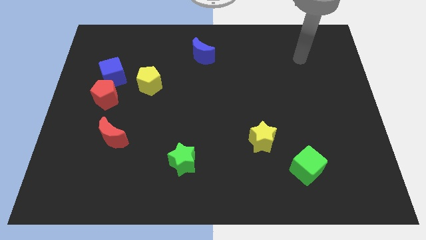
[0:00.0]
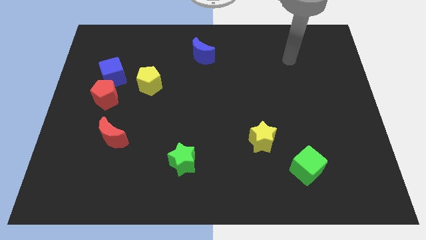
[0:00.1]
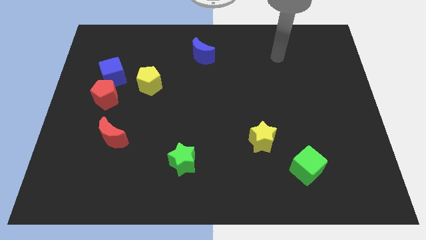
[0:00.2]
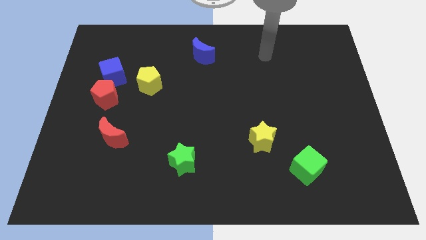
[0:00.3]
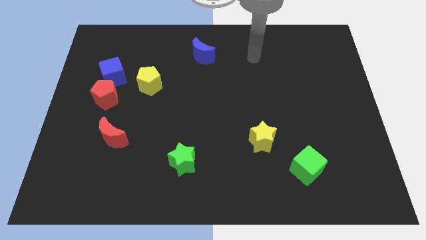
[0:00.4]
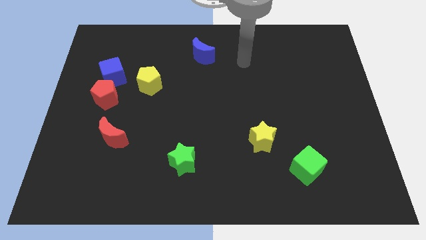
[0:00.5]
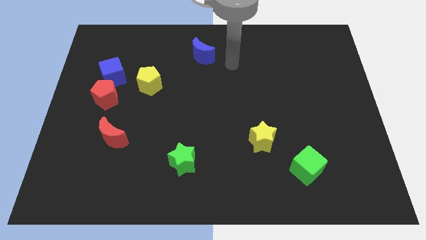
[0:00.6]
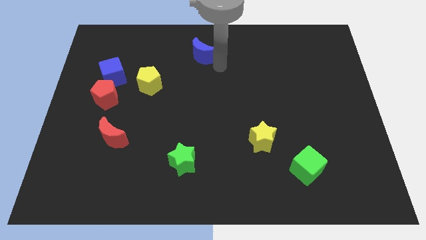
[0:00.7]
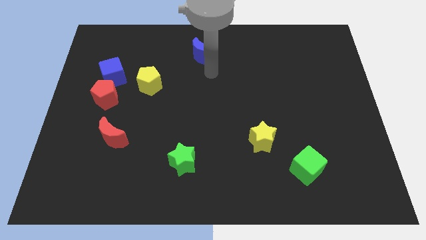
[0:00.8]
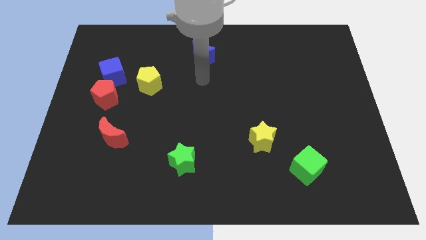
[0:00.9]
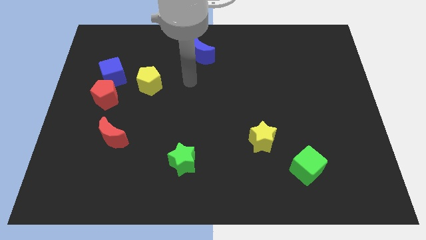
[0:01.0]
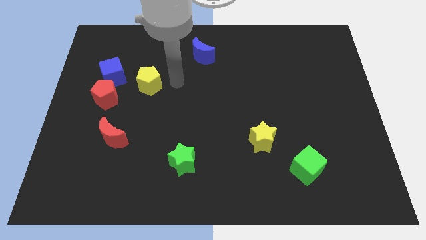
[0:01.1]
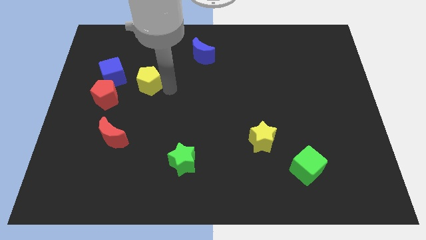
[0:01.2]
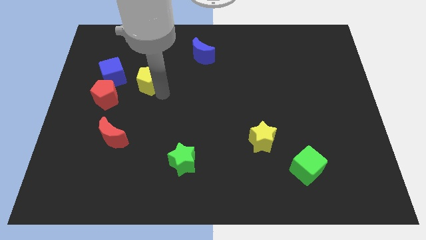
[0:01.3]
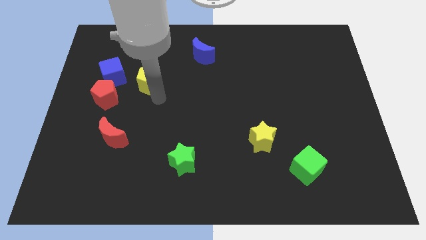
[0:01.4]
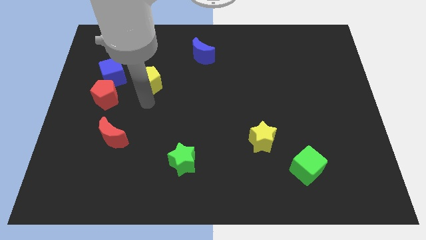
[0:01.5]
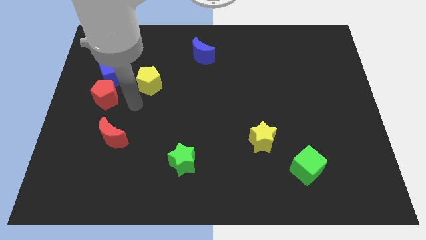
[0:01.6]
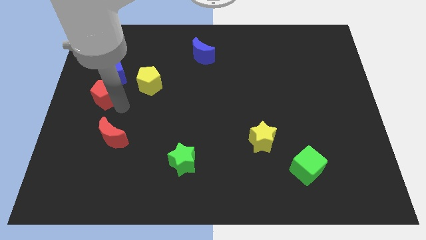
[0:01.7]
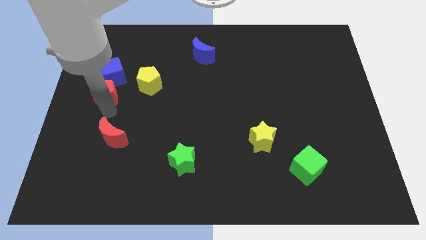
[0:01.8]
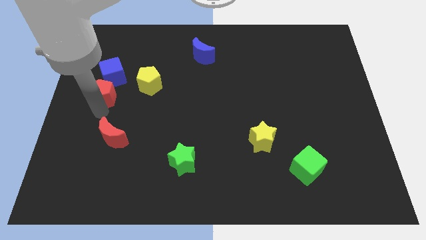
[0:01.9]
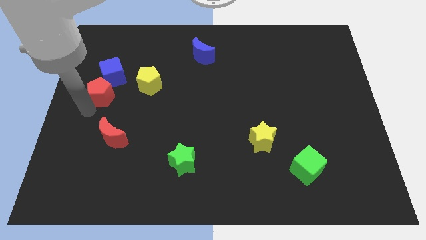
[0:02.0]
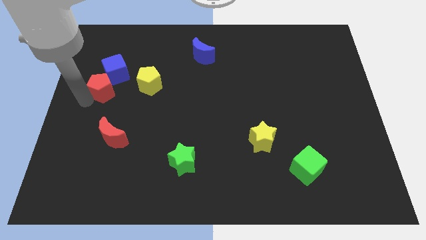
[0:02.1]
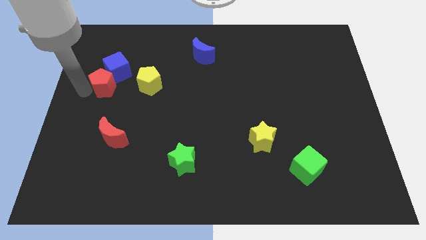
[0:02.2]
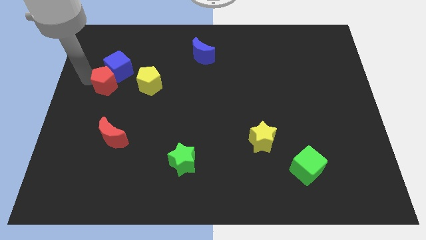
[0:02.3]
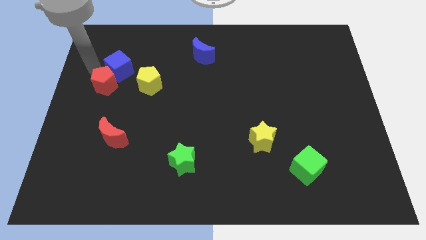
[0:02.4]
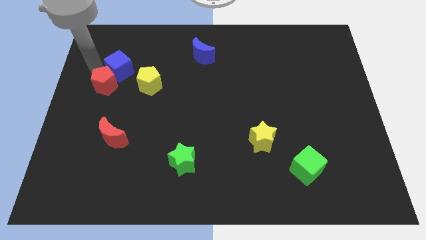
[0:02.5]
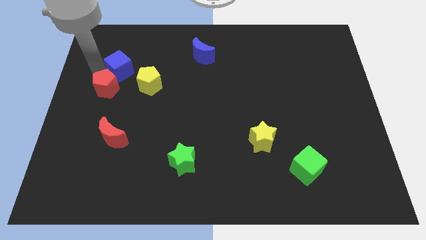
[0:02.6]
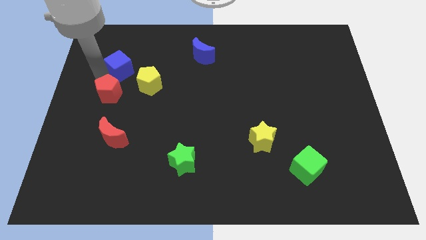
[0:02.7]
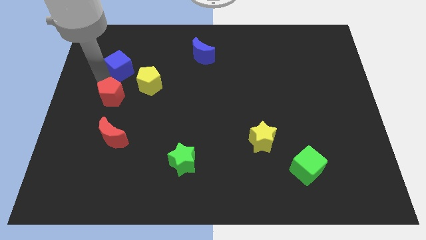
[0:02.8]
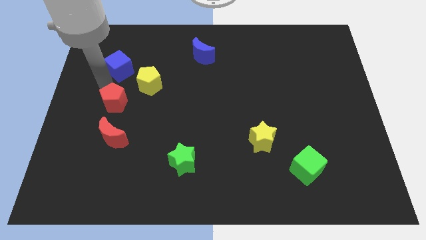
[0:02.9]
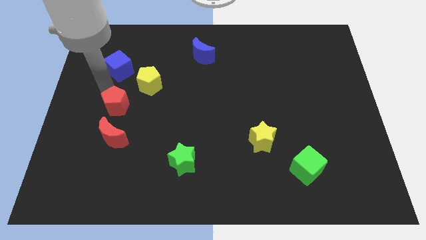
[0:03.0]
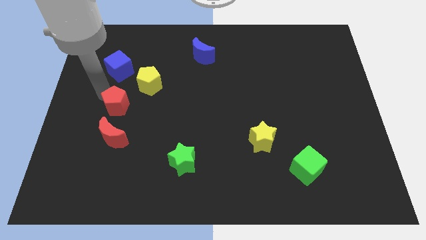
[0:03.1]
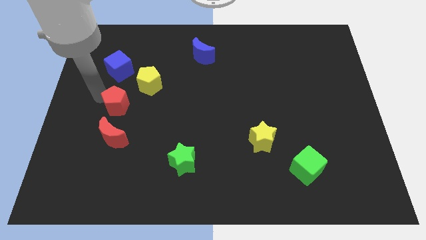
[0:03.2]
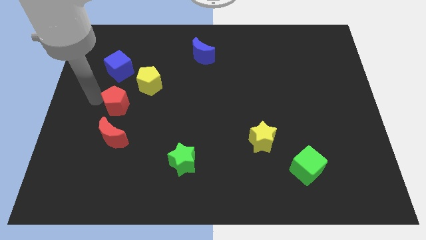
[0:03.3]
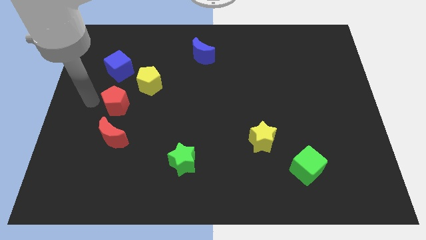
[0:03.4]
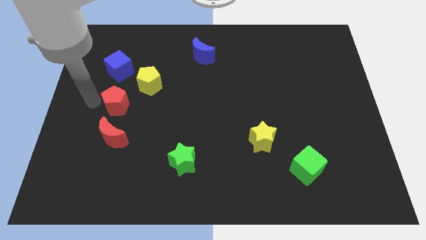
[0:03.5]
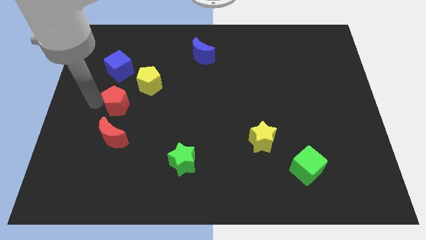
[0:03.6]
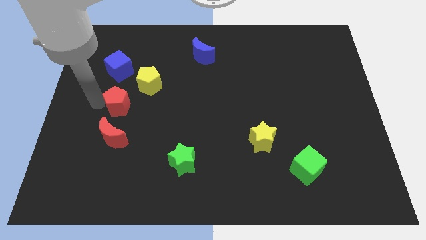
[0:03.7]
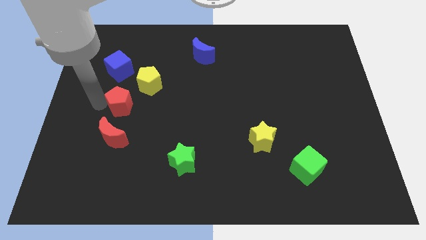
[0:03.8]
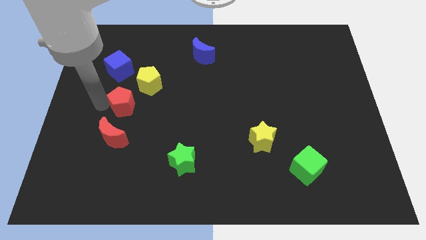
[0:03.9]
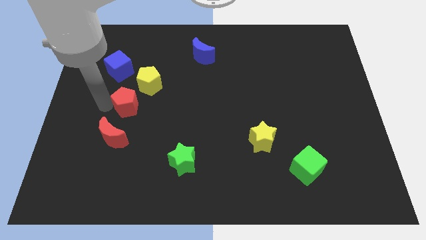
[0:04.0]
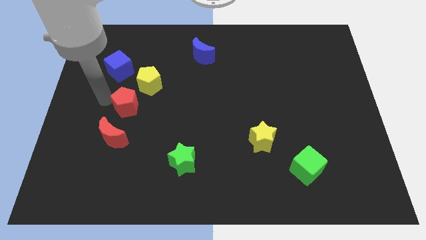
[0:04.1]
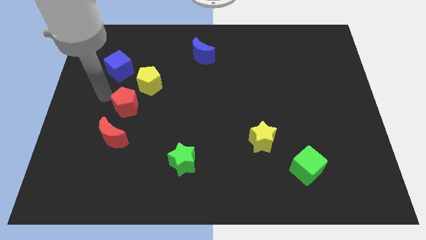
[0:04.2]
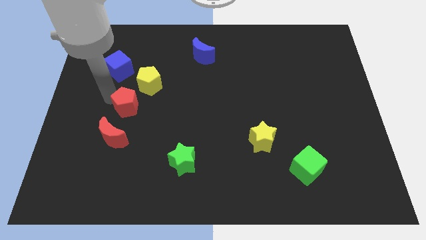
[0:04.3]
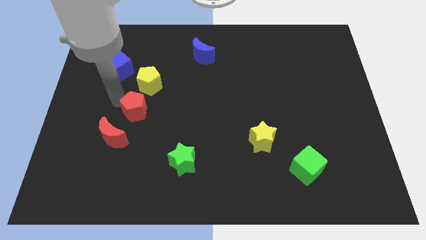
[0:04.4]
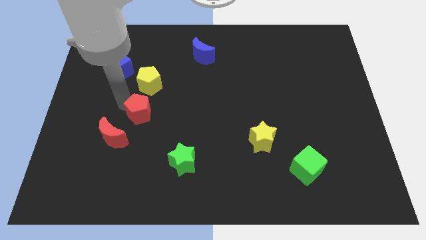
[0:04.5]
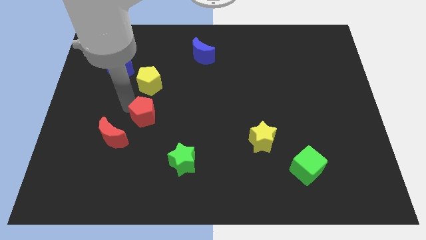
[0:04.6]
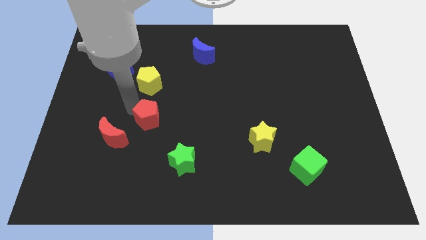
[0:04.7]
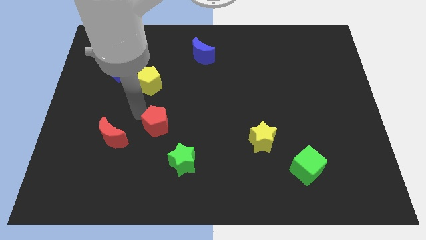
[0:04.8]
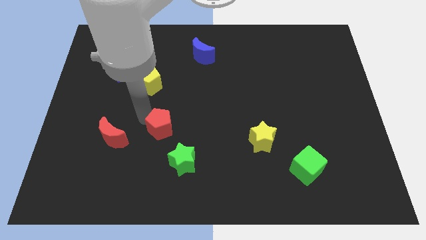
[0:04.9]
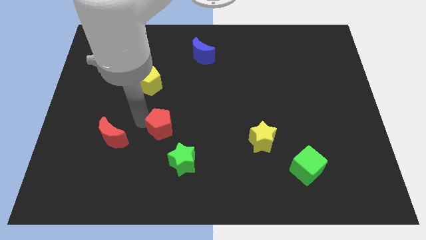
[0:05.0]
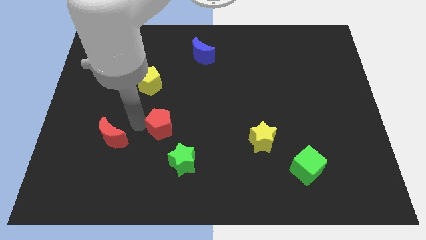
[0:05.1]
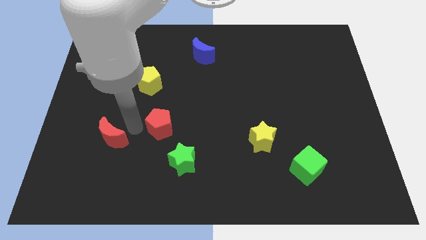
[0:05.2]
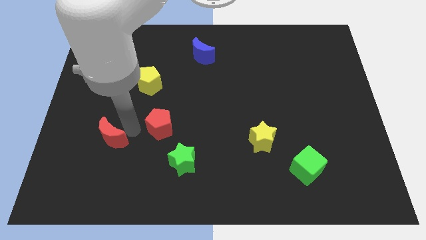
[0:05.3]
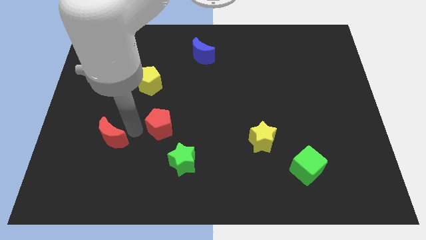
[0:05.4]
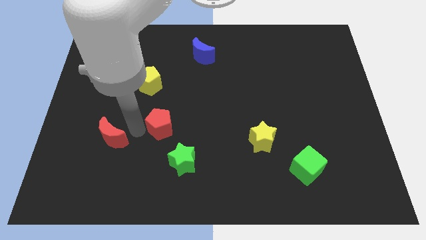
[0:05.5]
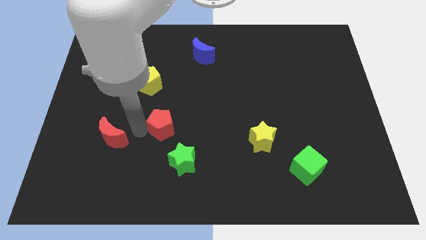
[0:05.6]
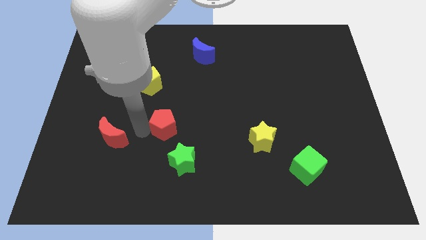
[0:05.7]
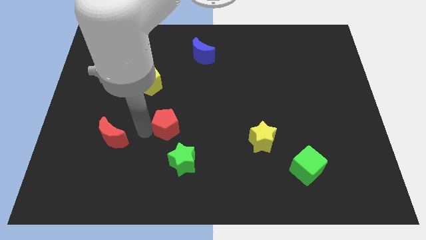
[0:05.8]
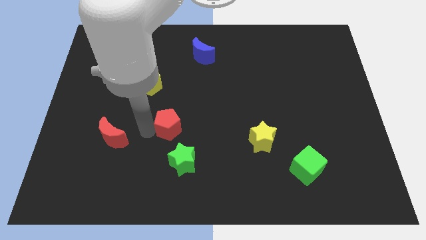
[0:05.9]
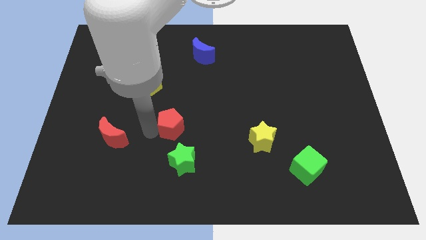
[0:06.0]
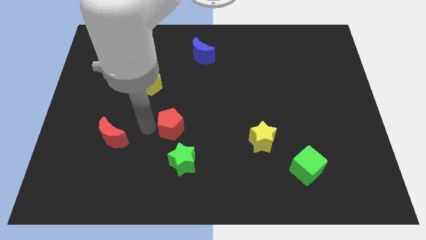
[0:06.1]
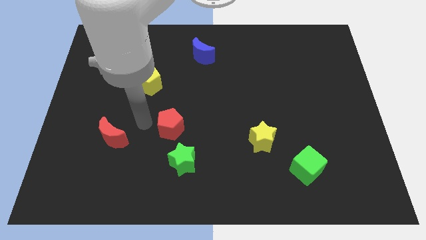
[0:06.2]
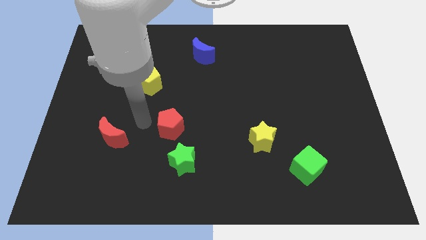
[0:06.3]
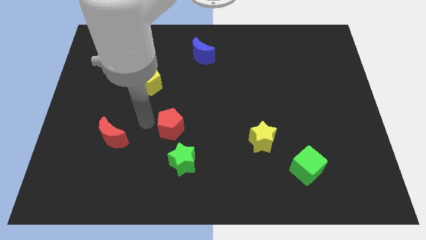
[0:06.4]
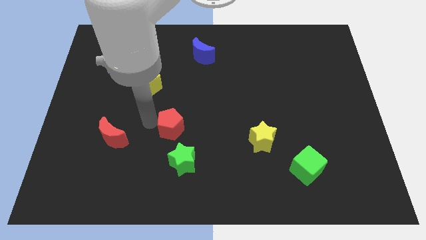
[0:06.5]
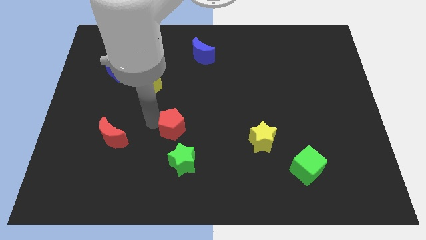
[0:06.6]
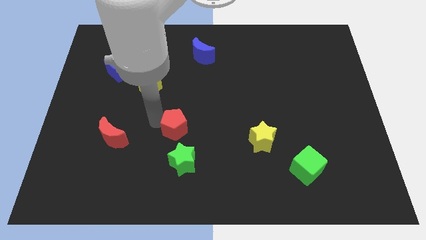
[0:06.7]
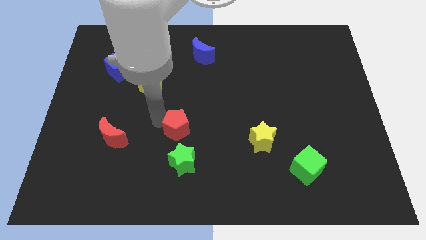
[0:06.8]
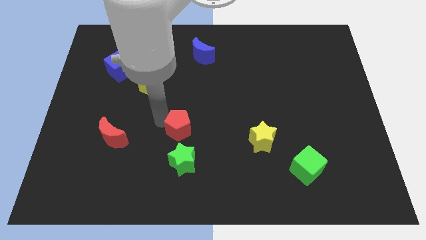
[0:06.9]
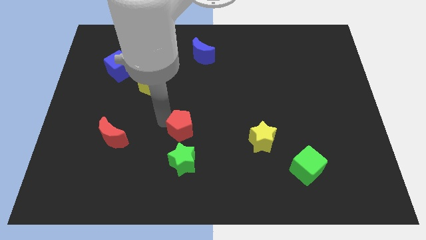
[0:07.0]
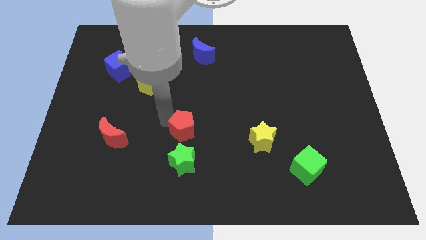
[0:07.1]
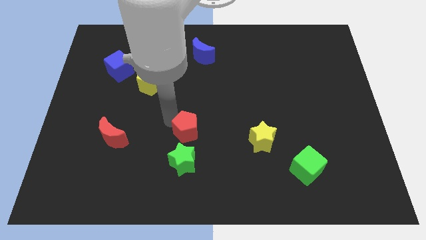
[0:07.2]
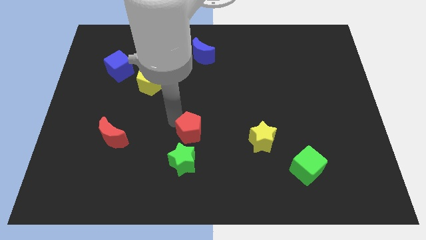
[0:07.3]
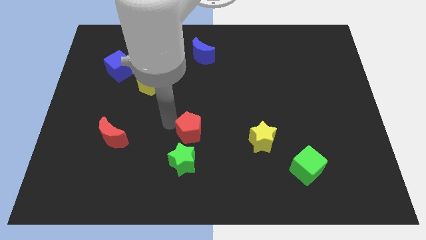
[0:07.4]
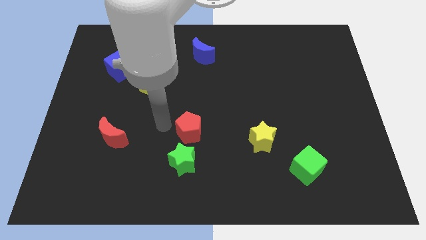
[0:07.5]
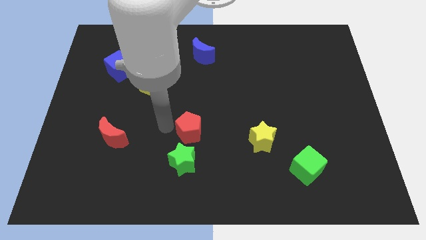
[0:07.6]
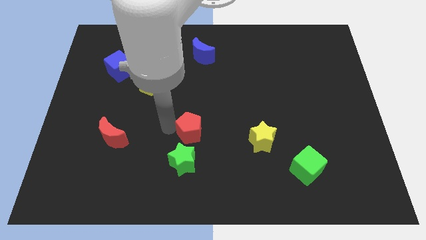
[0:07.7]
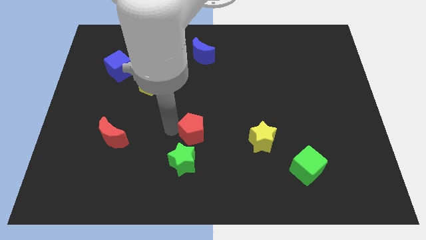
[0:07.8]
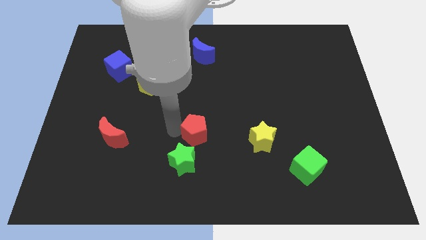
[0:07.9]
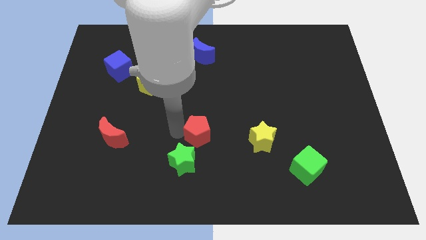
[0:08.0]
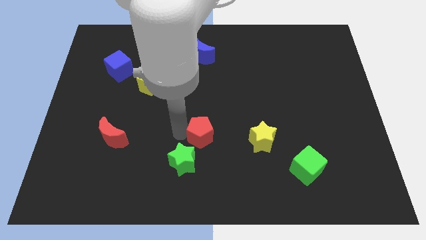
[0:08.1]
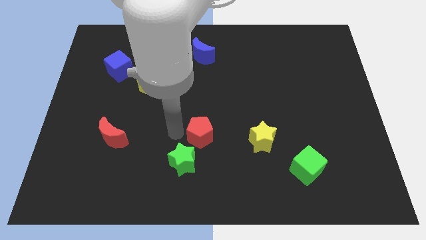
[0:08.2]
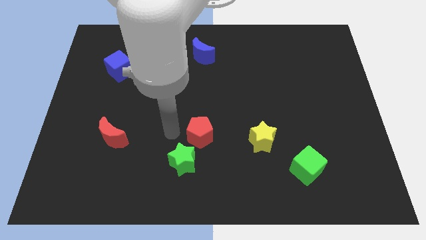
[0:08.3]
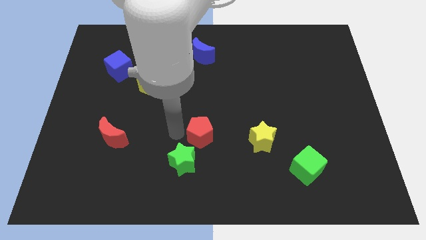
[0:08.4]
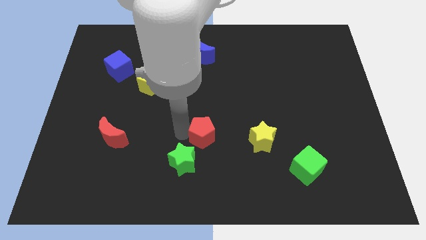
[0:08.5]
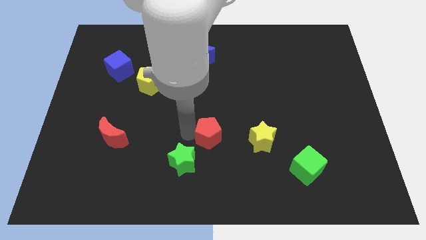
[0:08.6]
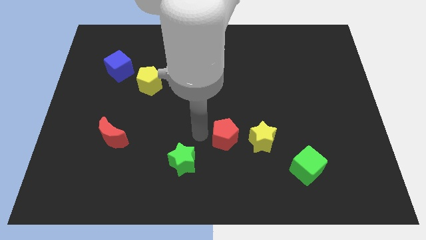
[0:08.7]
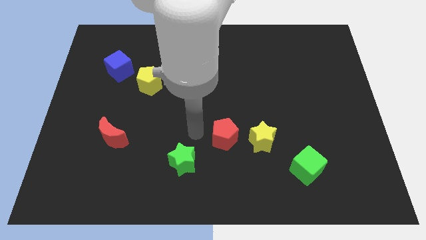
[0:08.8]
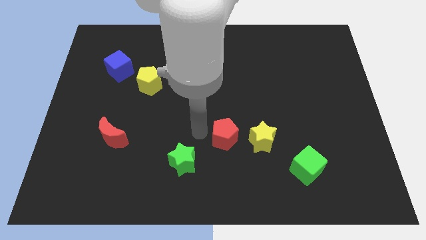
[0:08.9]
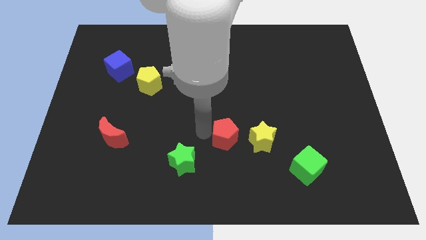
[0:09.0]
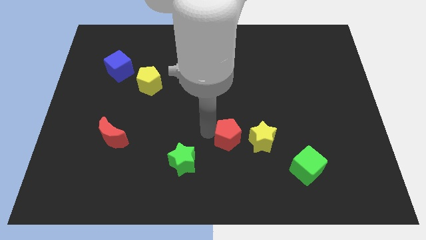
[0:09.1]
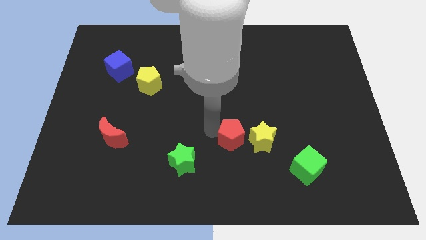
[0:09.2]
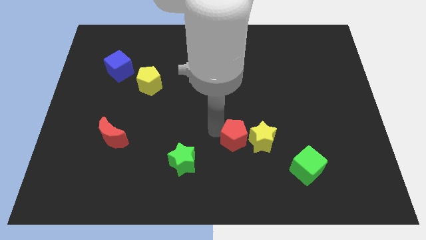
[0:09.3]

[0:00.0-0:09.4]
push the red pentagon close to the yellow star
